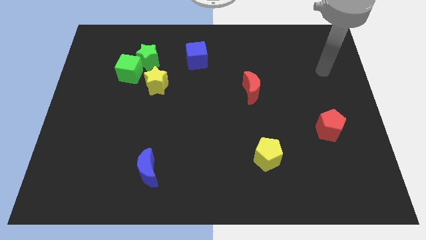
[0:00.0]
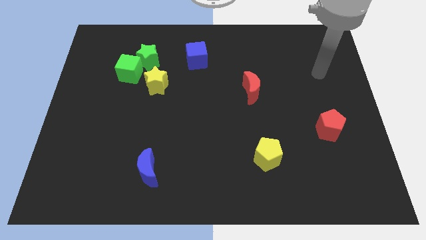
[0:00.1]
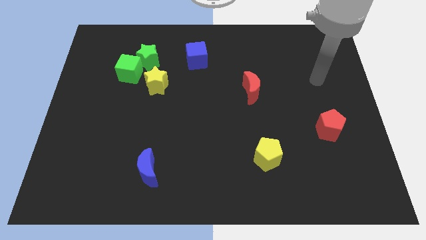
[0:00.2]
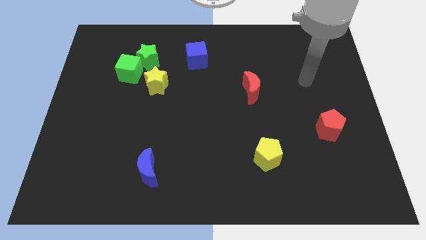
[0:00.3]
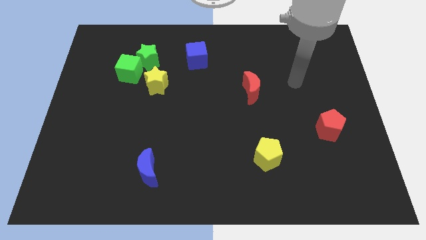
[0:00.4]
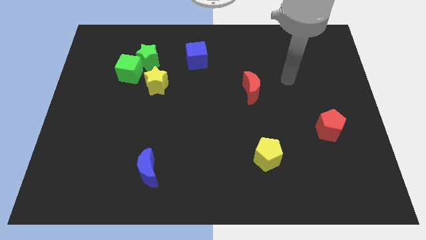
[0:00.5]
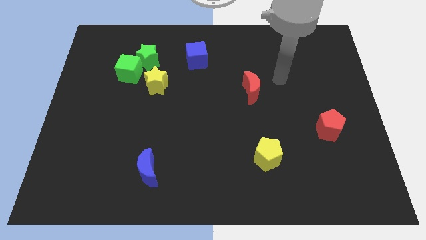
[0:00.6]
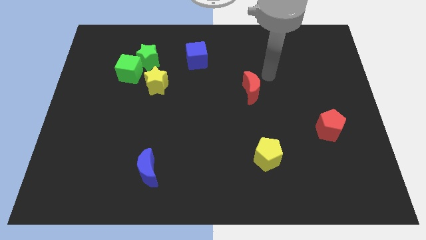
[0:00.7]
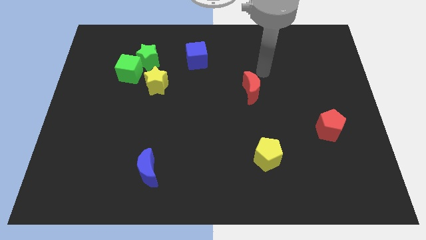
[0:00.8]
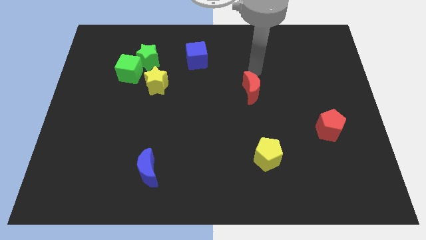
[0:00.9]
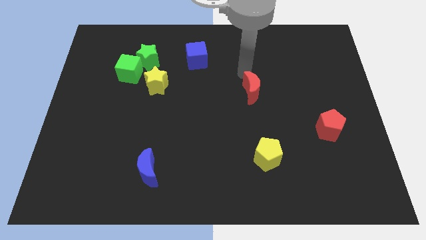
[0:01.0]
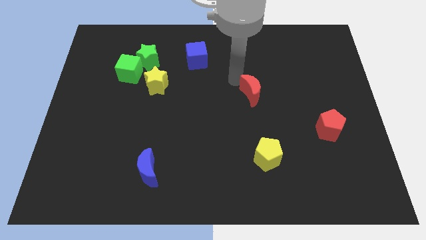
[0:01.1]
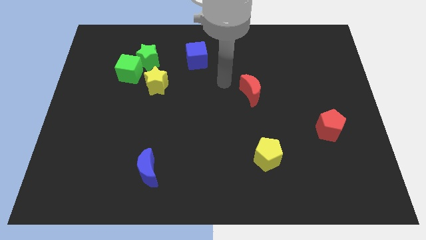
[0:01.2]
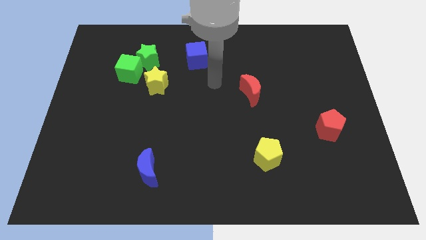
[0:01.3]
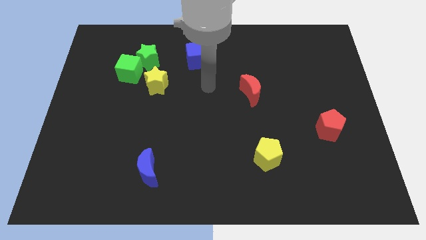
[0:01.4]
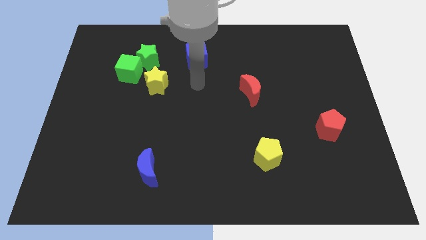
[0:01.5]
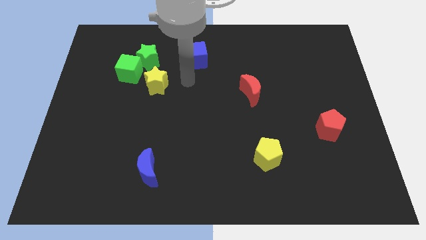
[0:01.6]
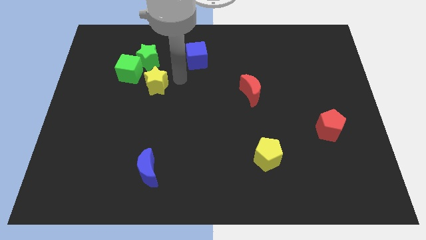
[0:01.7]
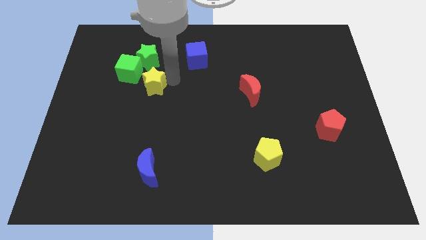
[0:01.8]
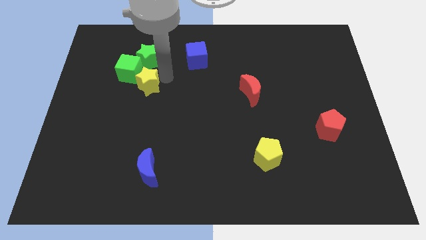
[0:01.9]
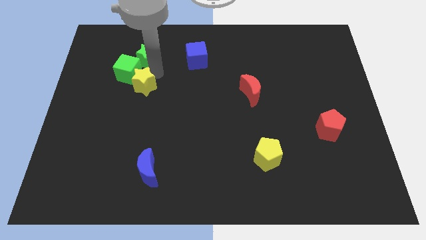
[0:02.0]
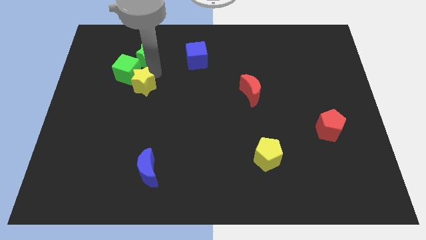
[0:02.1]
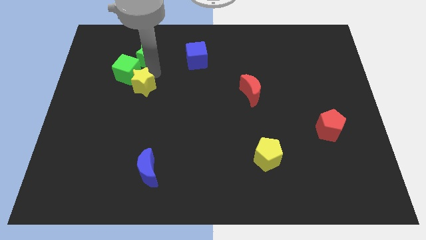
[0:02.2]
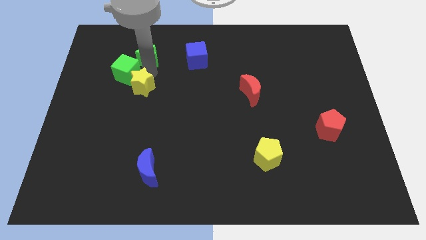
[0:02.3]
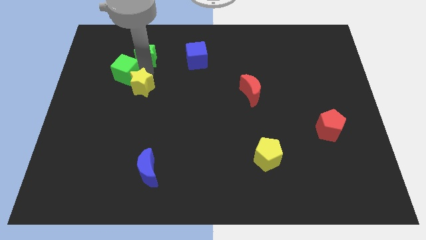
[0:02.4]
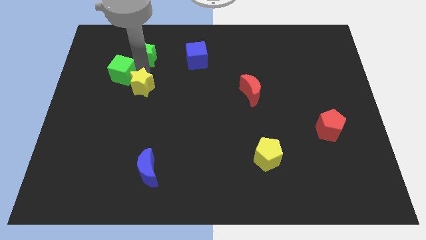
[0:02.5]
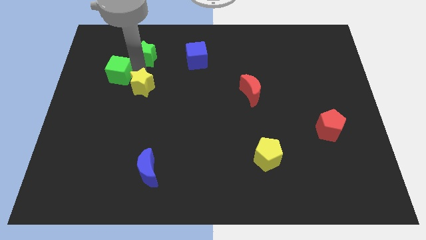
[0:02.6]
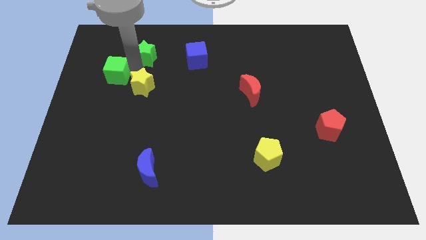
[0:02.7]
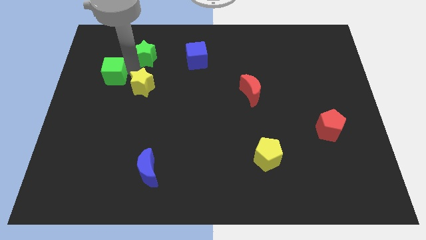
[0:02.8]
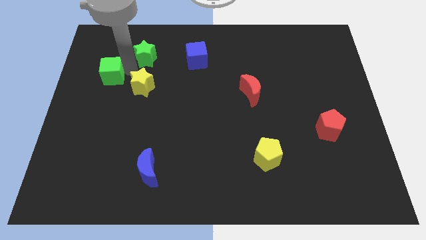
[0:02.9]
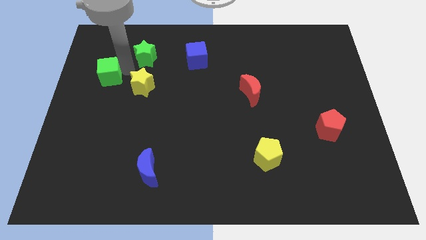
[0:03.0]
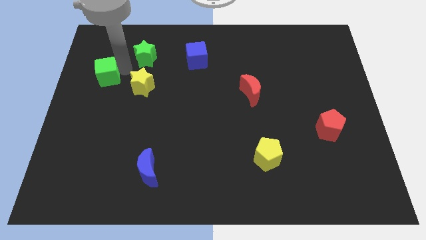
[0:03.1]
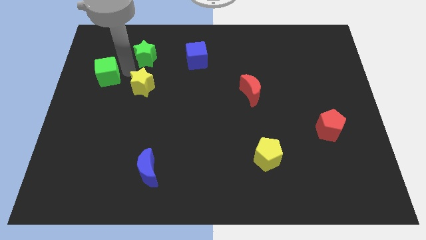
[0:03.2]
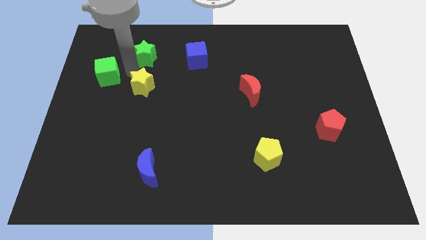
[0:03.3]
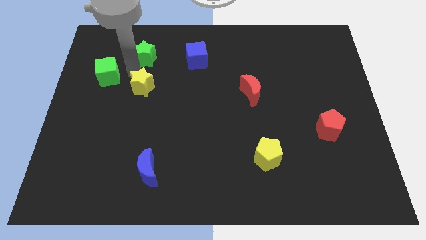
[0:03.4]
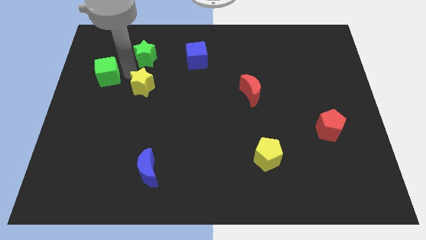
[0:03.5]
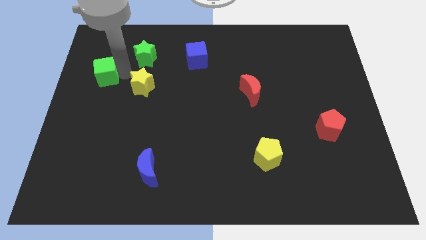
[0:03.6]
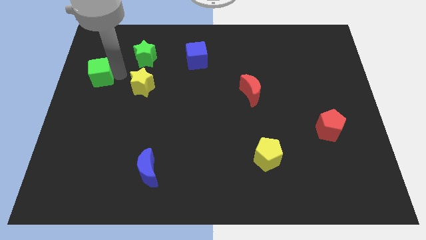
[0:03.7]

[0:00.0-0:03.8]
move the green cube away from the green star and yellow star

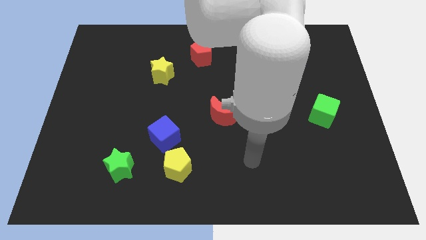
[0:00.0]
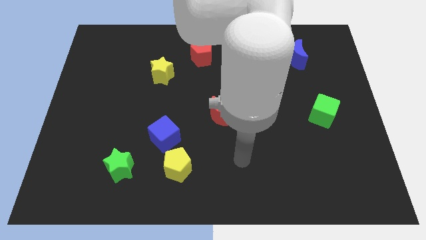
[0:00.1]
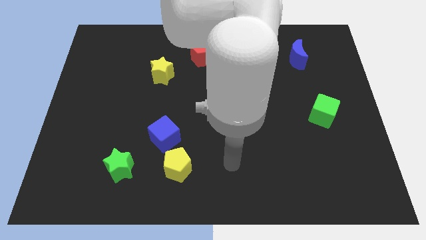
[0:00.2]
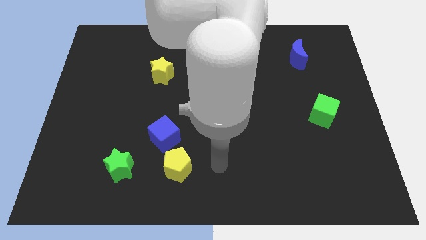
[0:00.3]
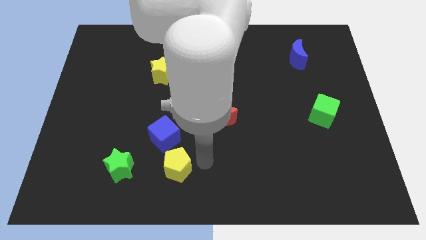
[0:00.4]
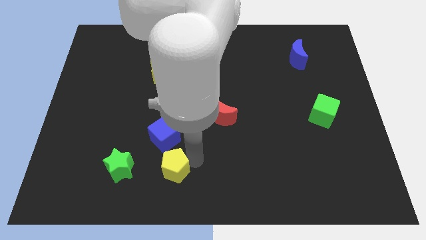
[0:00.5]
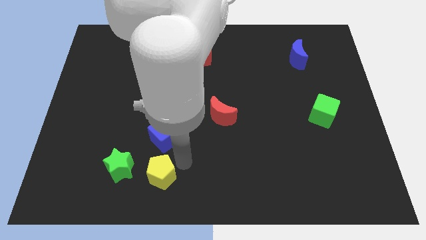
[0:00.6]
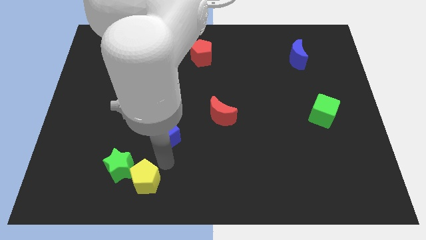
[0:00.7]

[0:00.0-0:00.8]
separate the blue cube from the yellow pentagon

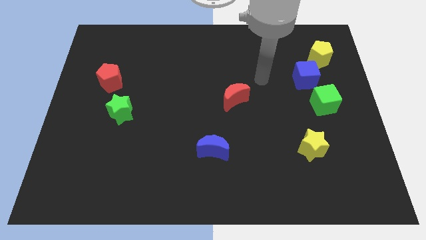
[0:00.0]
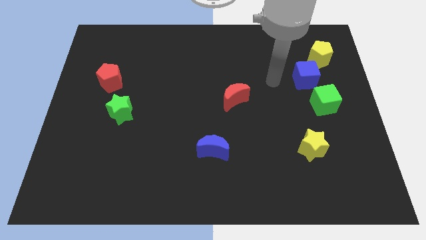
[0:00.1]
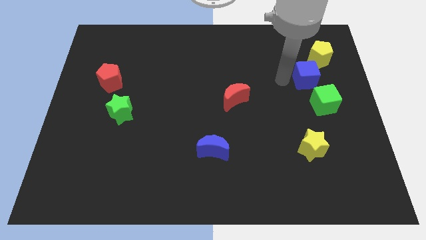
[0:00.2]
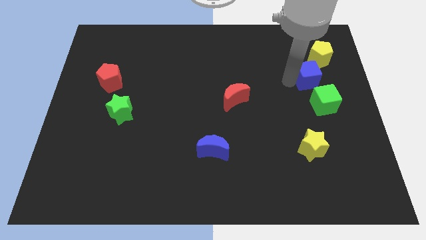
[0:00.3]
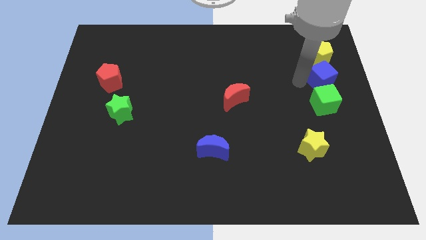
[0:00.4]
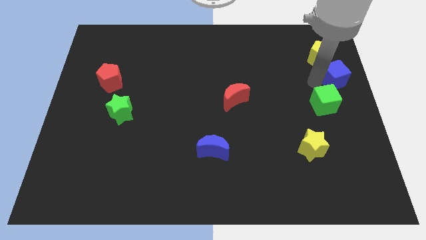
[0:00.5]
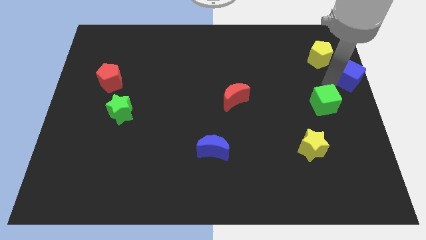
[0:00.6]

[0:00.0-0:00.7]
pull the green cube apart from the blue cube

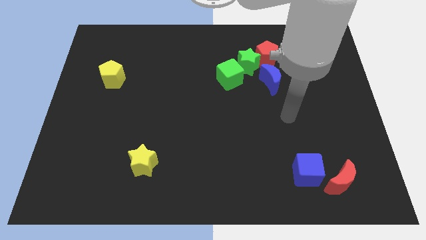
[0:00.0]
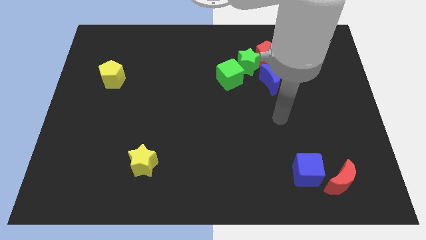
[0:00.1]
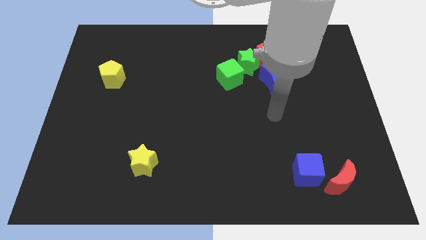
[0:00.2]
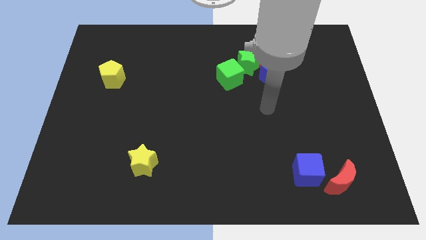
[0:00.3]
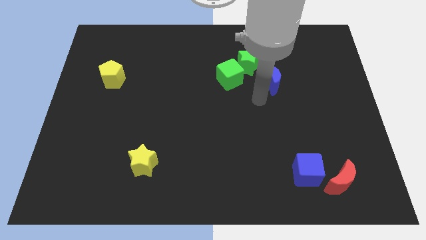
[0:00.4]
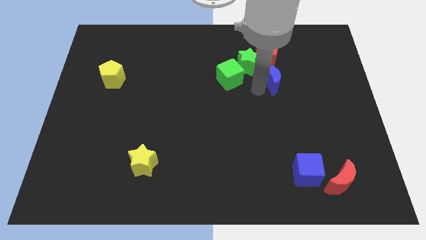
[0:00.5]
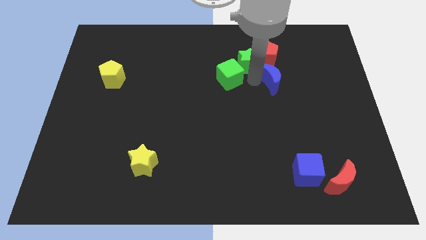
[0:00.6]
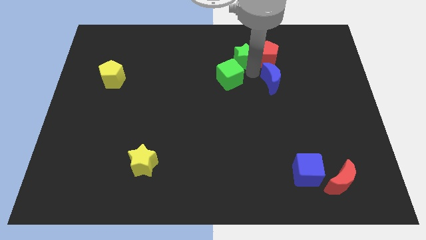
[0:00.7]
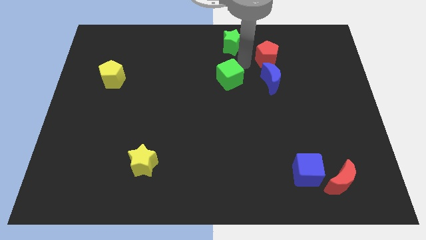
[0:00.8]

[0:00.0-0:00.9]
move the green cube away from the green star

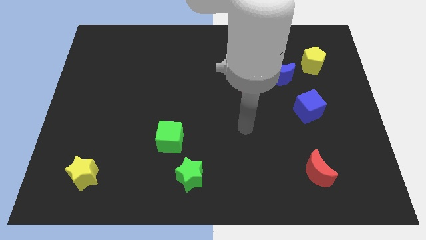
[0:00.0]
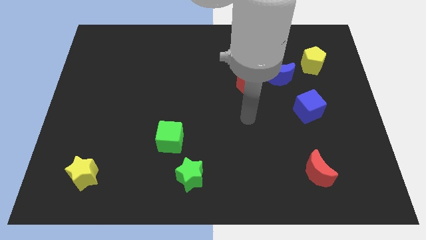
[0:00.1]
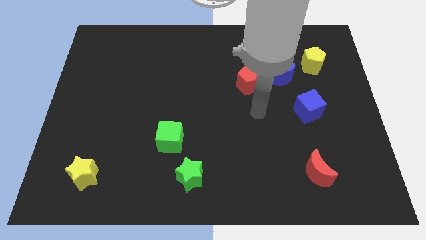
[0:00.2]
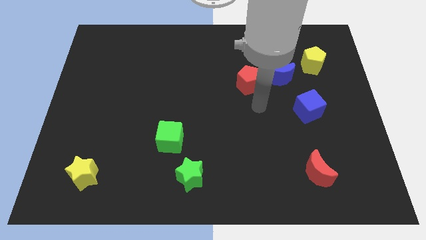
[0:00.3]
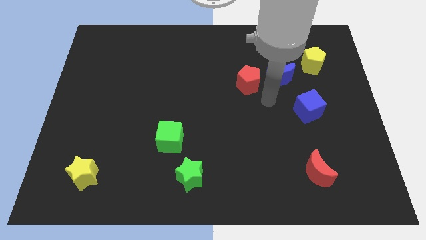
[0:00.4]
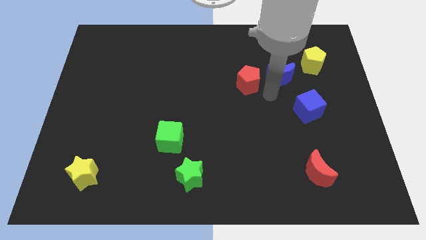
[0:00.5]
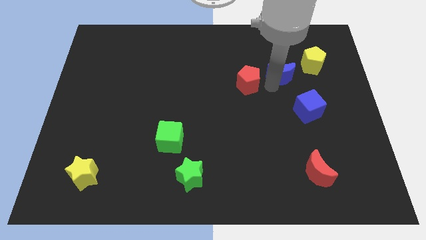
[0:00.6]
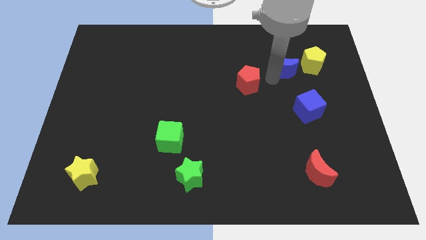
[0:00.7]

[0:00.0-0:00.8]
move the red pentagon away from the blue moon

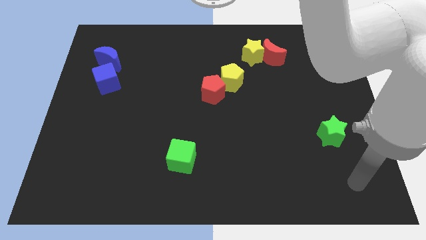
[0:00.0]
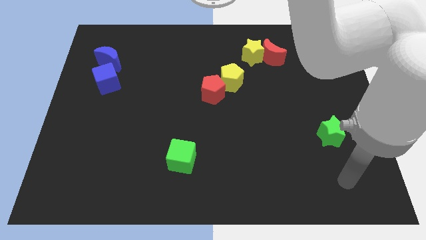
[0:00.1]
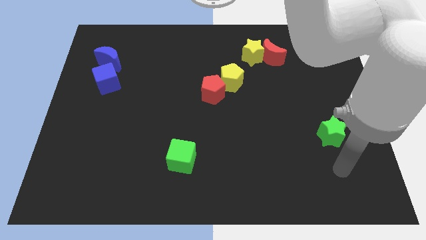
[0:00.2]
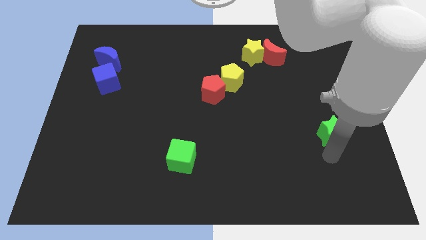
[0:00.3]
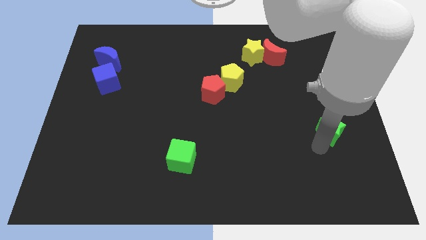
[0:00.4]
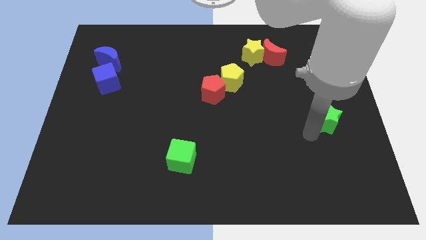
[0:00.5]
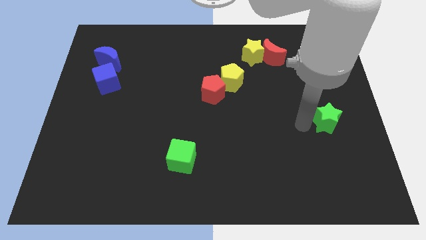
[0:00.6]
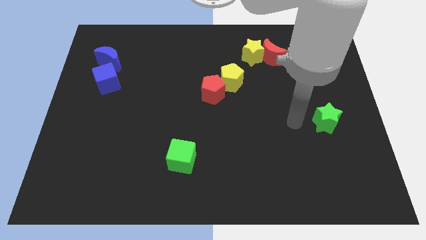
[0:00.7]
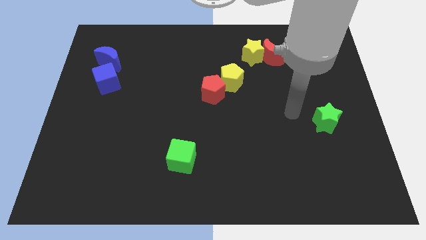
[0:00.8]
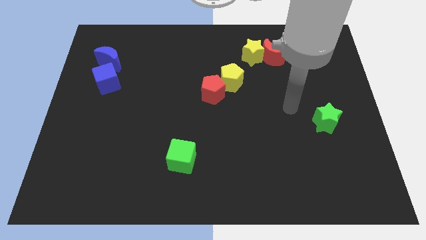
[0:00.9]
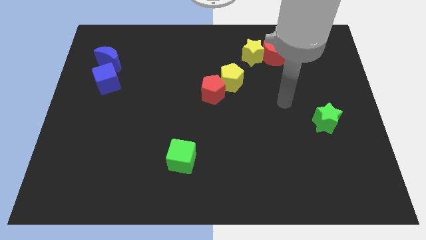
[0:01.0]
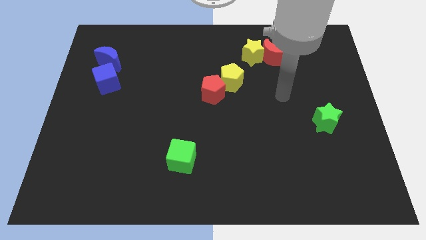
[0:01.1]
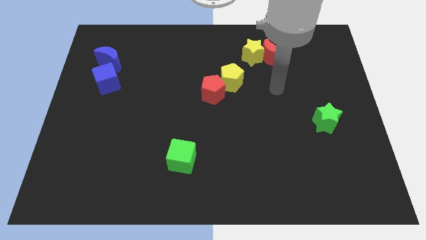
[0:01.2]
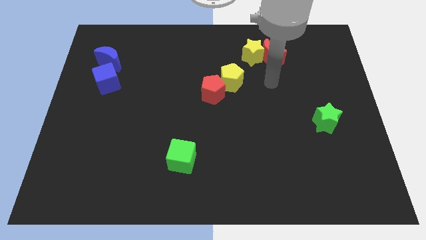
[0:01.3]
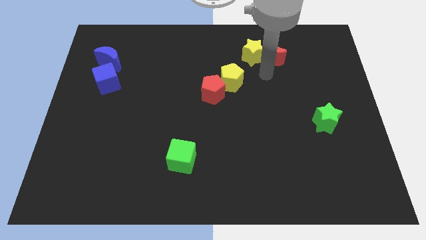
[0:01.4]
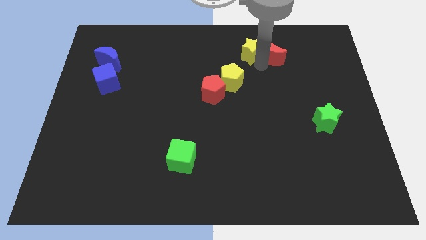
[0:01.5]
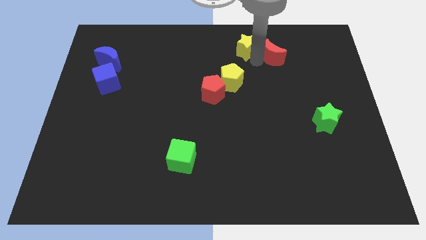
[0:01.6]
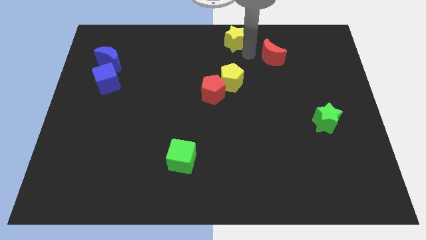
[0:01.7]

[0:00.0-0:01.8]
separate the red moon from the yellow star

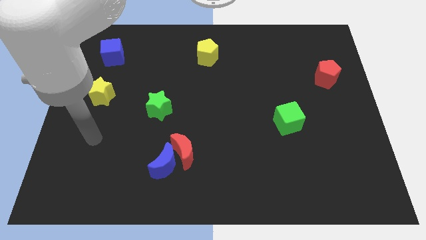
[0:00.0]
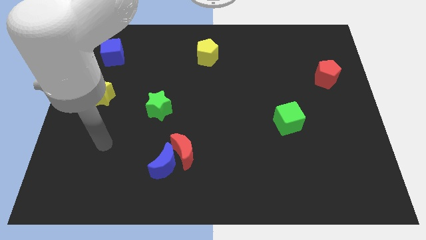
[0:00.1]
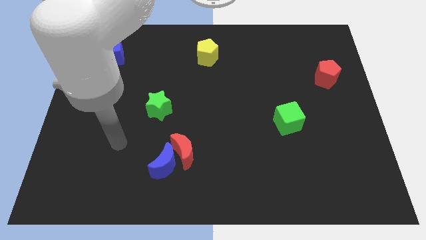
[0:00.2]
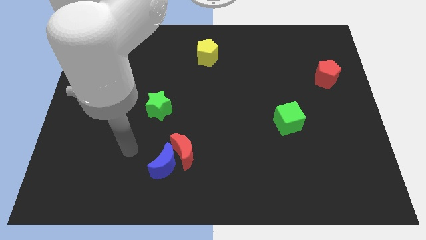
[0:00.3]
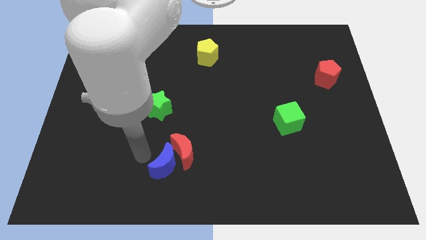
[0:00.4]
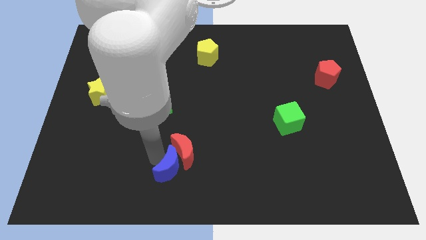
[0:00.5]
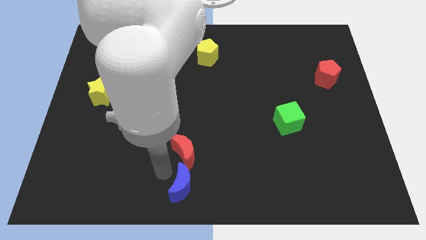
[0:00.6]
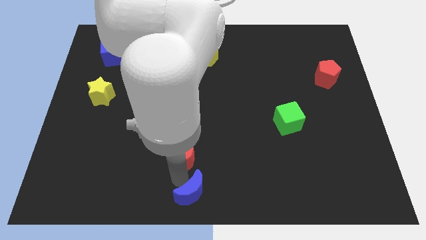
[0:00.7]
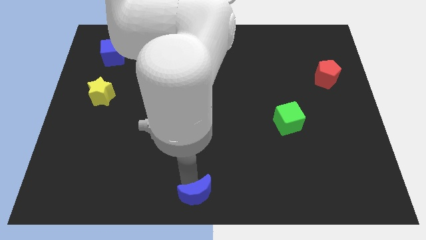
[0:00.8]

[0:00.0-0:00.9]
move the red moon away from the blue moon
